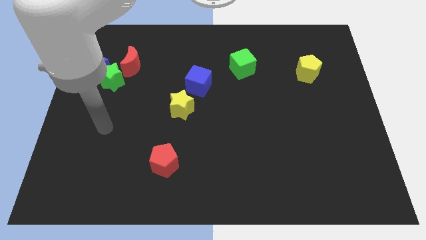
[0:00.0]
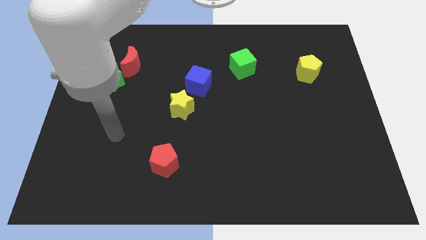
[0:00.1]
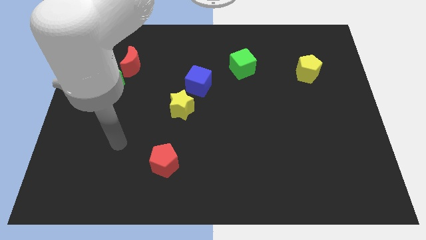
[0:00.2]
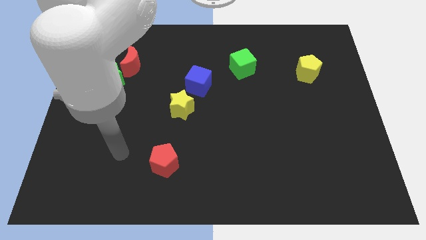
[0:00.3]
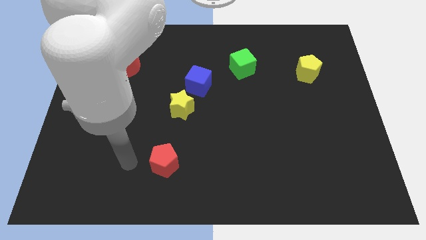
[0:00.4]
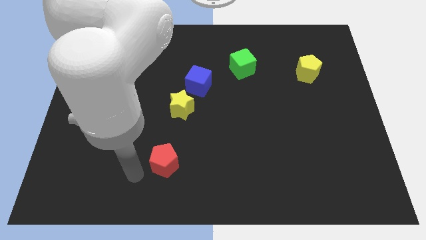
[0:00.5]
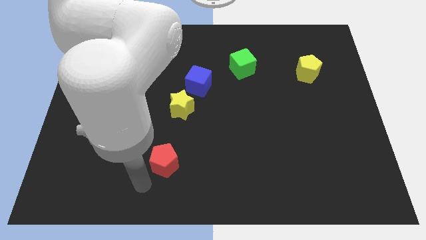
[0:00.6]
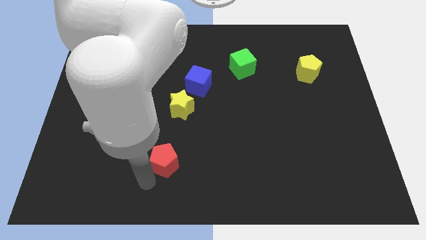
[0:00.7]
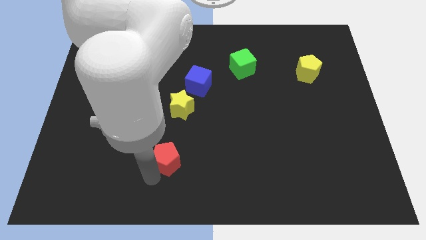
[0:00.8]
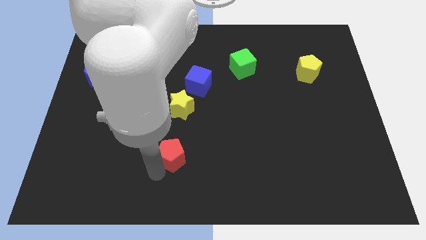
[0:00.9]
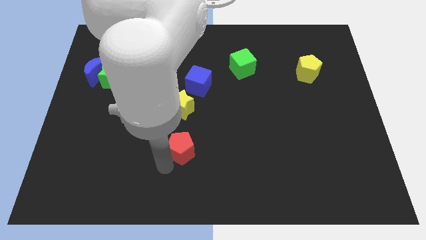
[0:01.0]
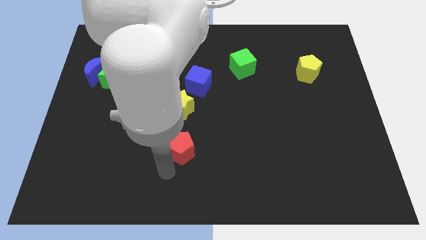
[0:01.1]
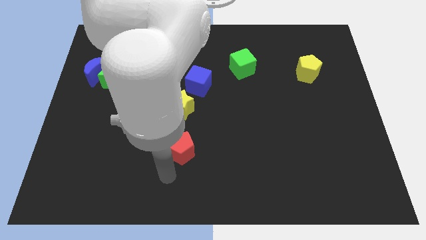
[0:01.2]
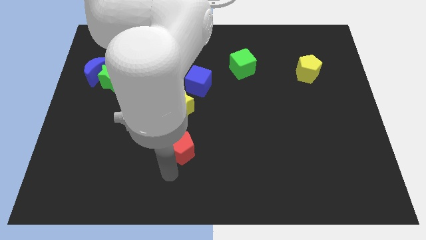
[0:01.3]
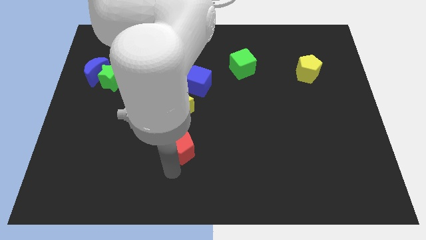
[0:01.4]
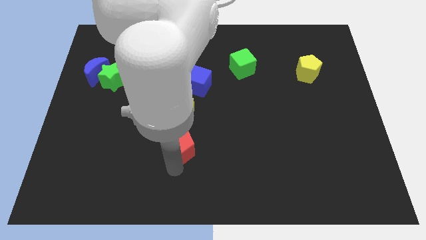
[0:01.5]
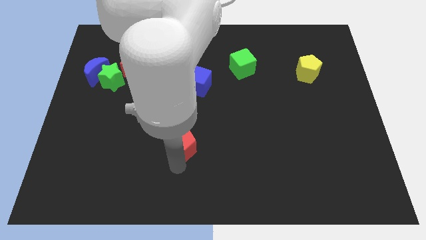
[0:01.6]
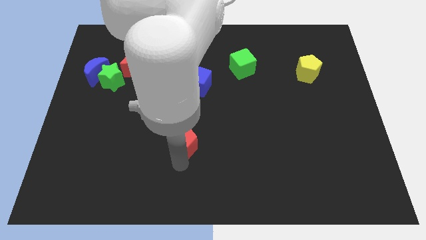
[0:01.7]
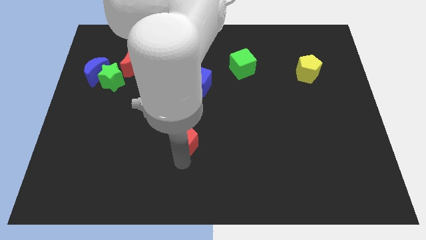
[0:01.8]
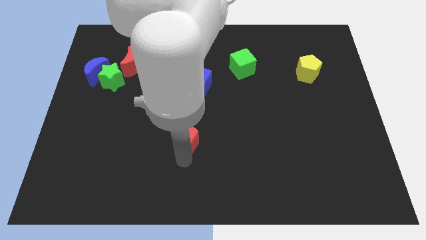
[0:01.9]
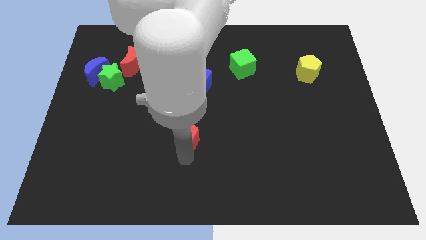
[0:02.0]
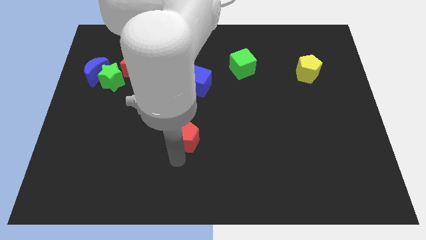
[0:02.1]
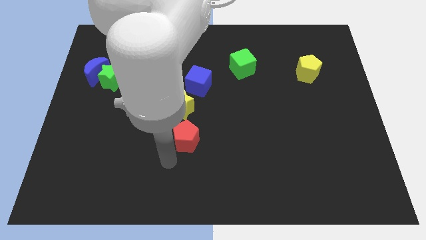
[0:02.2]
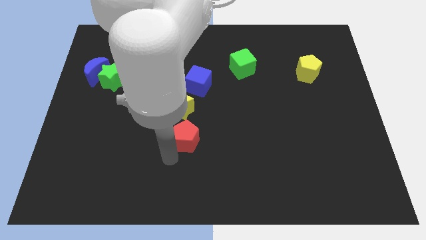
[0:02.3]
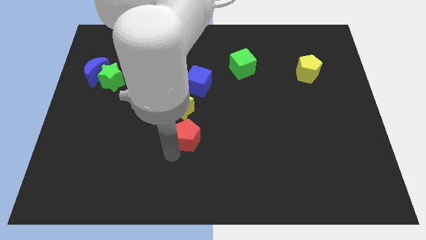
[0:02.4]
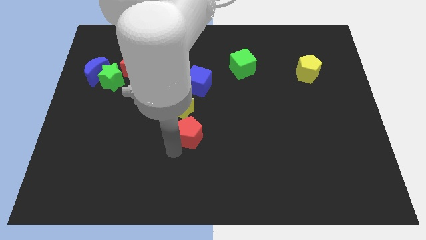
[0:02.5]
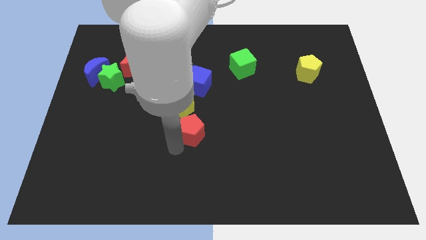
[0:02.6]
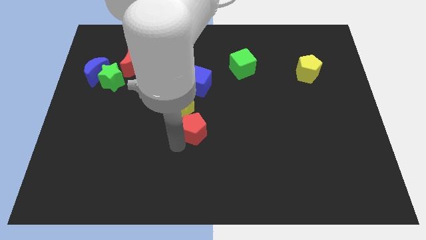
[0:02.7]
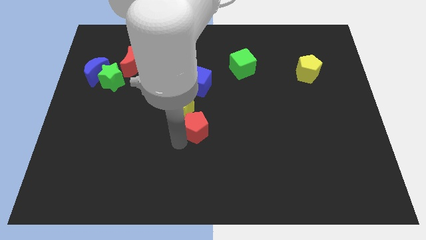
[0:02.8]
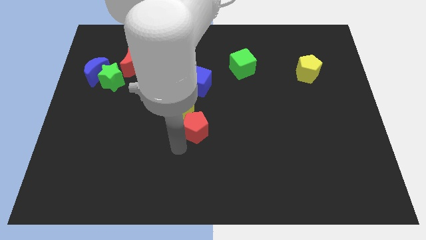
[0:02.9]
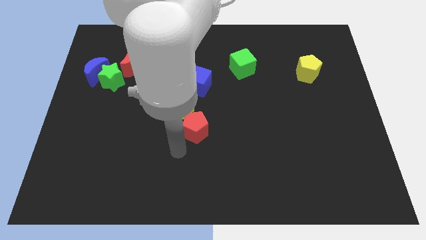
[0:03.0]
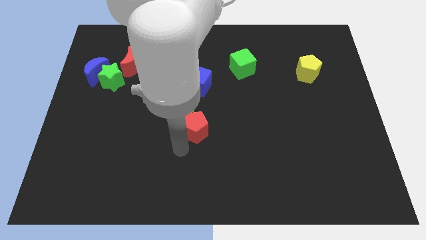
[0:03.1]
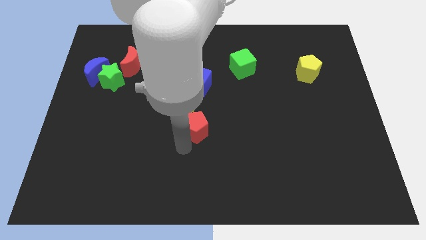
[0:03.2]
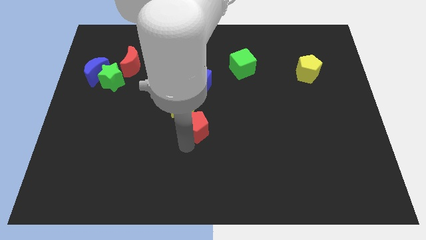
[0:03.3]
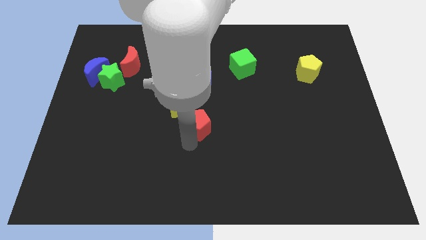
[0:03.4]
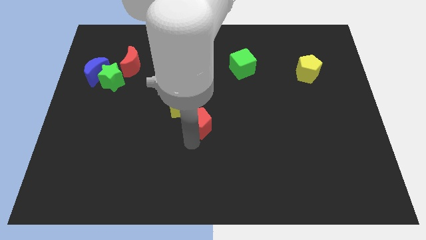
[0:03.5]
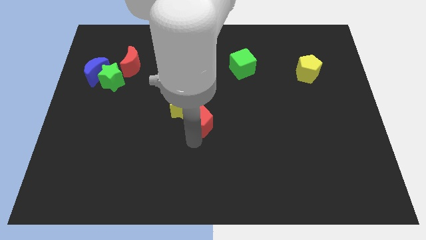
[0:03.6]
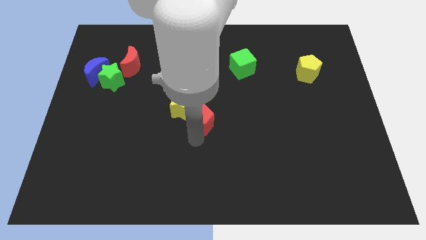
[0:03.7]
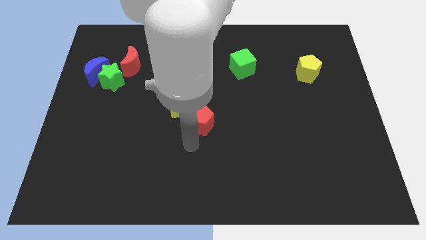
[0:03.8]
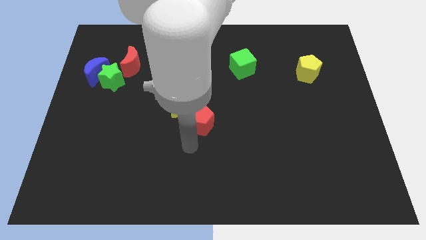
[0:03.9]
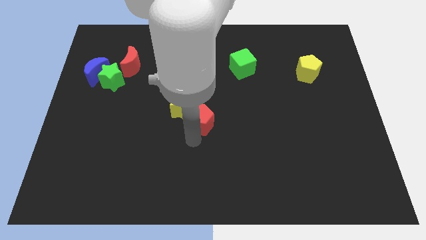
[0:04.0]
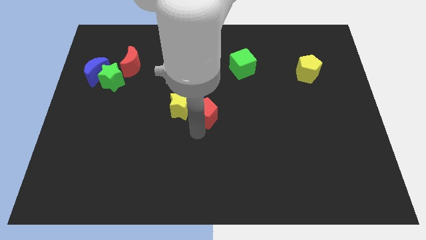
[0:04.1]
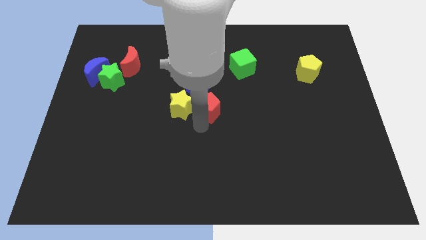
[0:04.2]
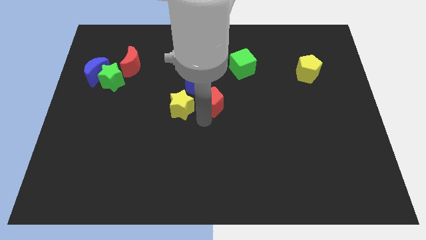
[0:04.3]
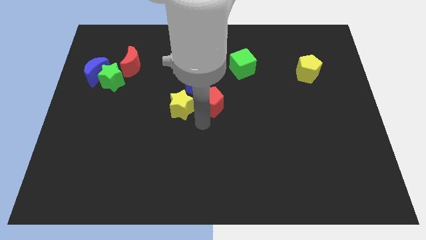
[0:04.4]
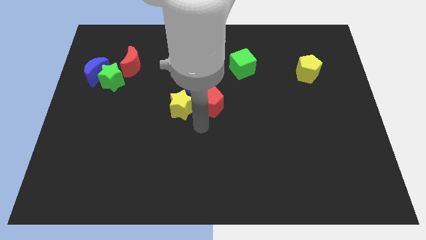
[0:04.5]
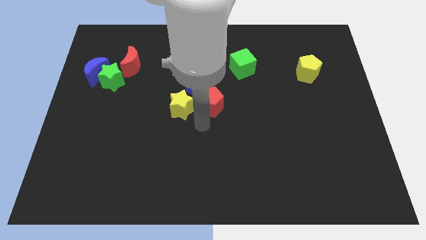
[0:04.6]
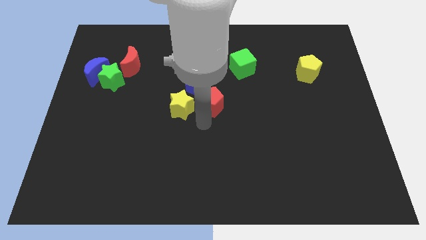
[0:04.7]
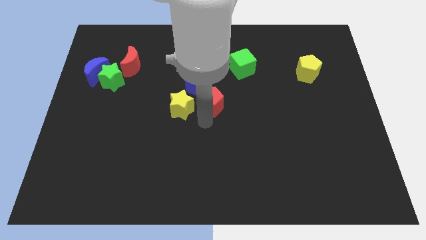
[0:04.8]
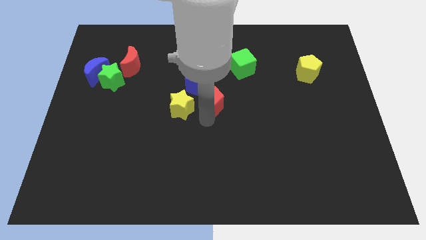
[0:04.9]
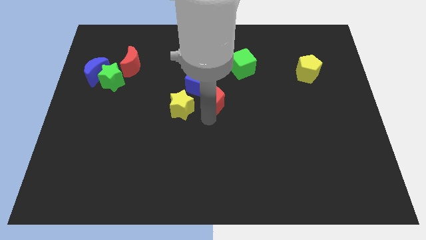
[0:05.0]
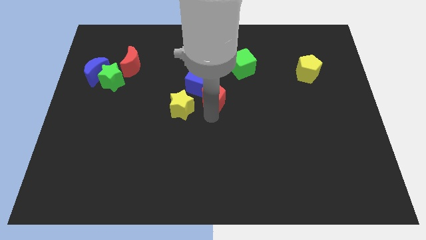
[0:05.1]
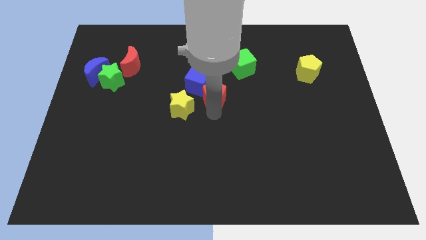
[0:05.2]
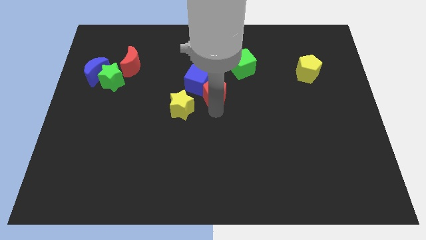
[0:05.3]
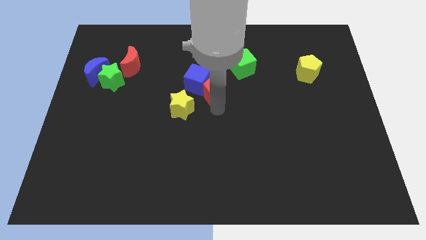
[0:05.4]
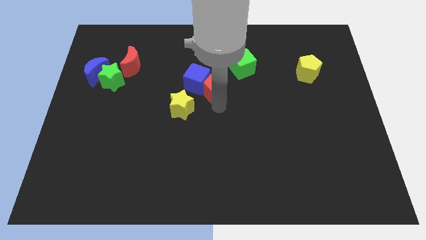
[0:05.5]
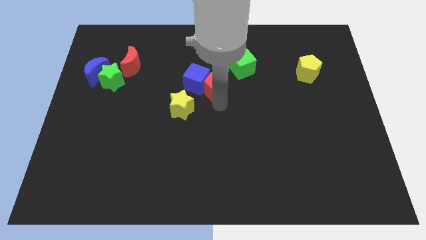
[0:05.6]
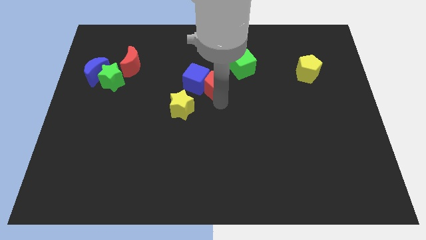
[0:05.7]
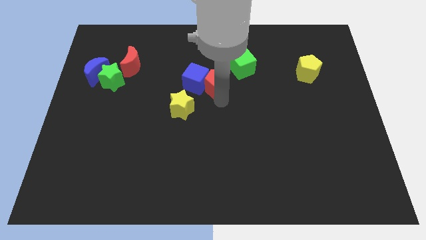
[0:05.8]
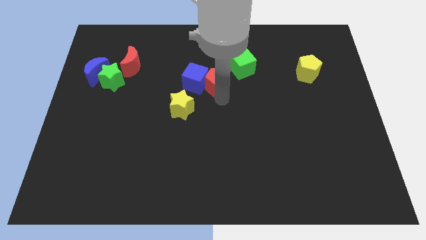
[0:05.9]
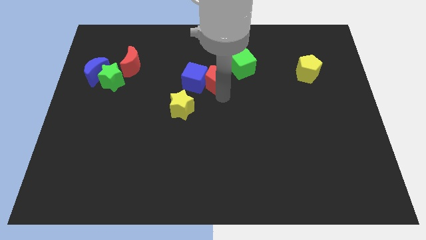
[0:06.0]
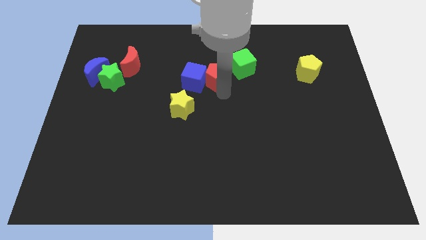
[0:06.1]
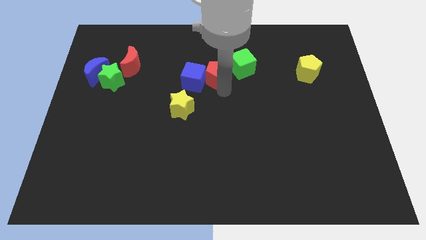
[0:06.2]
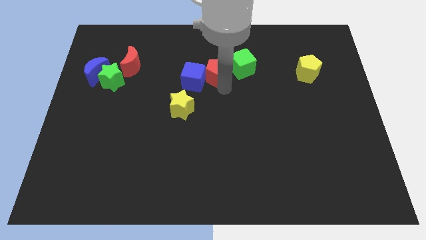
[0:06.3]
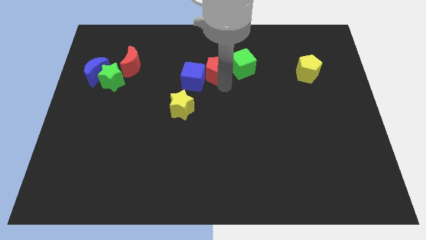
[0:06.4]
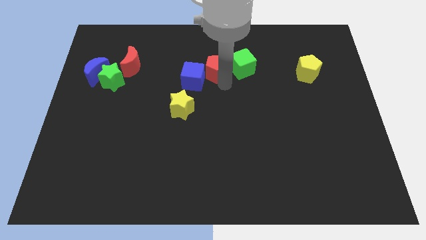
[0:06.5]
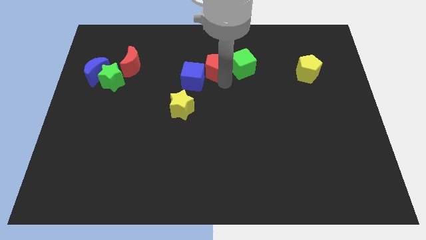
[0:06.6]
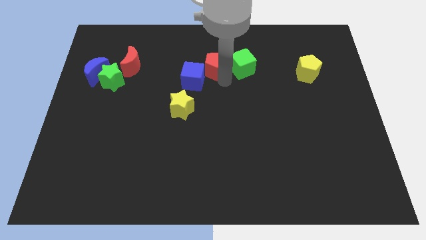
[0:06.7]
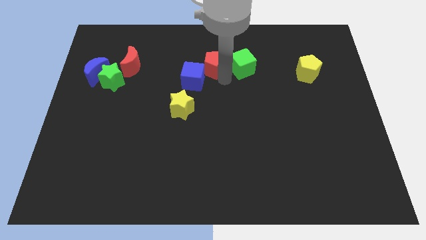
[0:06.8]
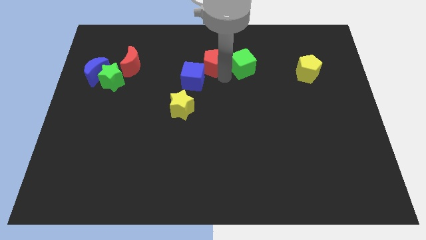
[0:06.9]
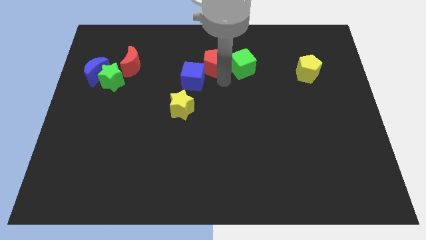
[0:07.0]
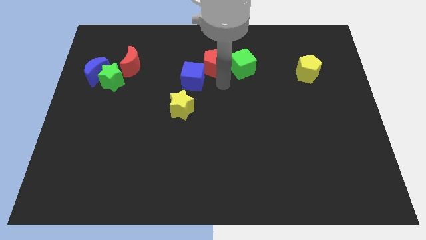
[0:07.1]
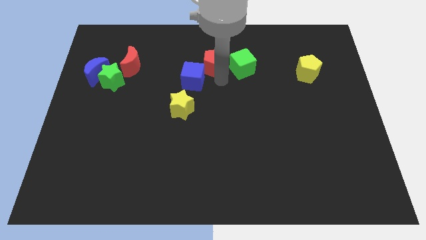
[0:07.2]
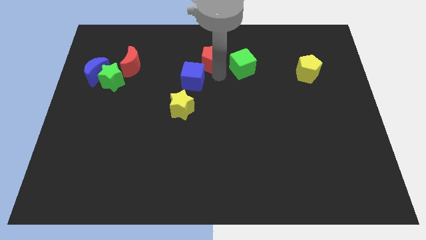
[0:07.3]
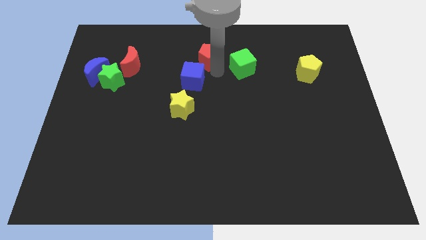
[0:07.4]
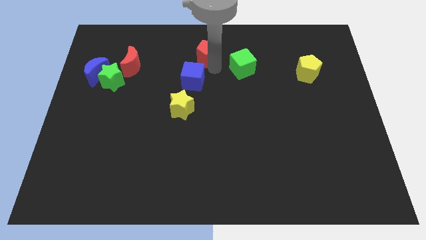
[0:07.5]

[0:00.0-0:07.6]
slide the red pentagon to the towards your base
